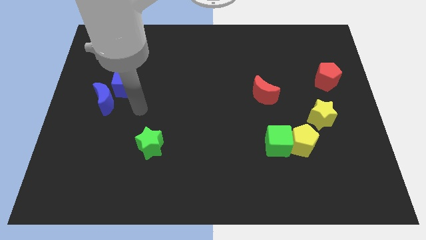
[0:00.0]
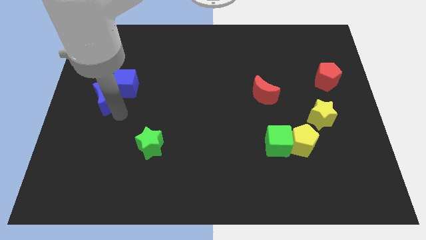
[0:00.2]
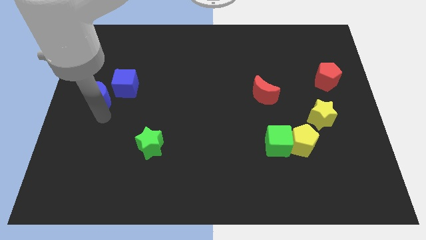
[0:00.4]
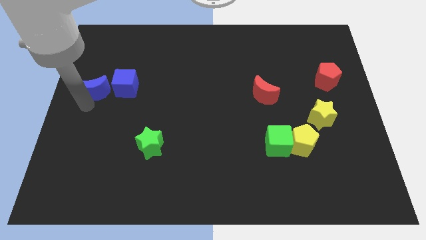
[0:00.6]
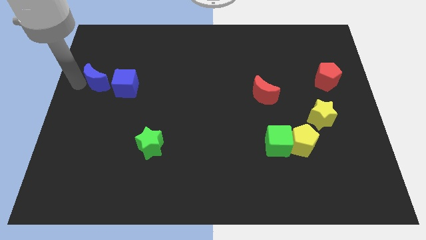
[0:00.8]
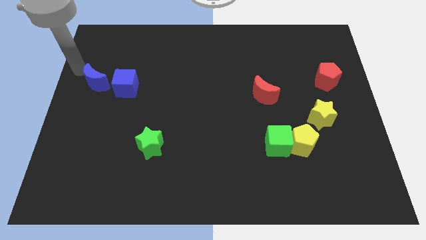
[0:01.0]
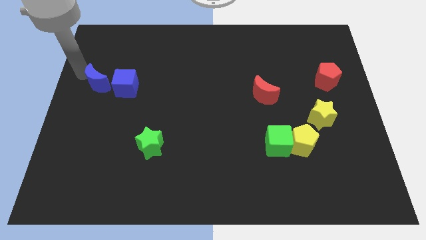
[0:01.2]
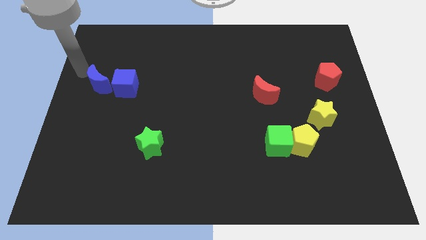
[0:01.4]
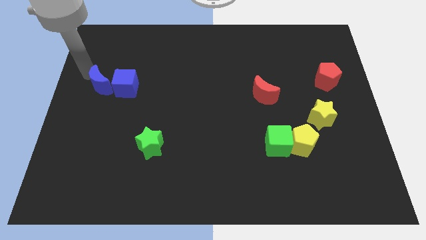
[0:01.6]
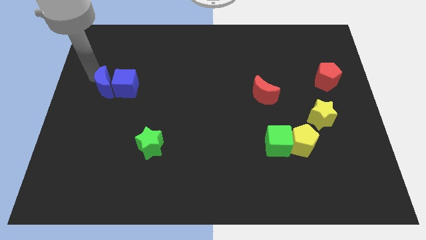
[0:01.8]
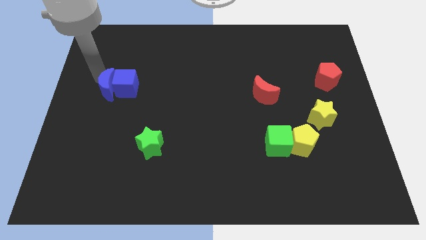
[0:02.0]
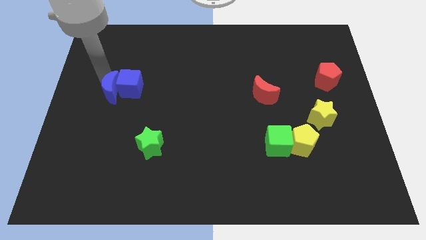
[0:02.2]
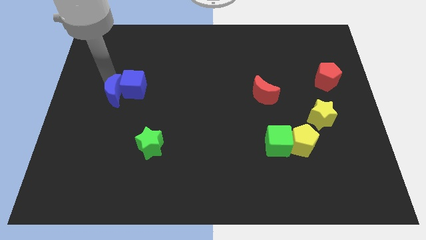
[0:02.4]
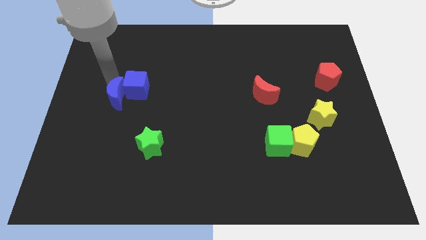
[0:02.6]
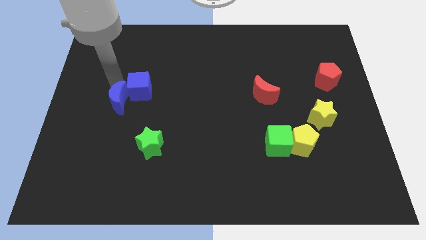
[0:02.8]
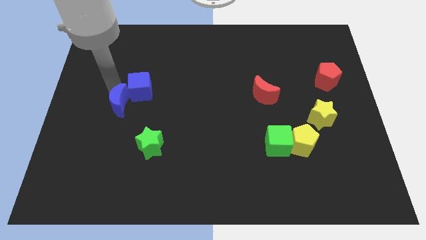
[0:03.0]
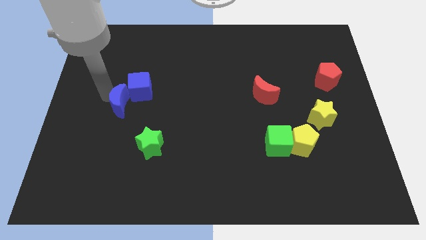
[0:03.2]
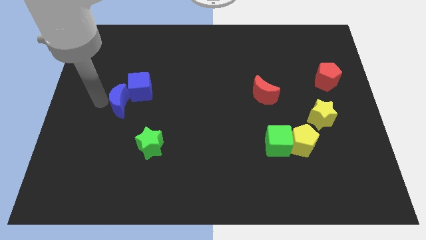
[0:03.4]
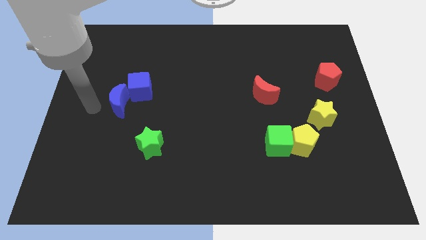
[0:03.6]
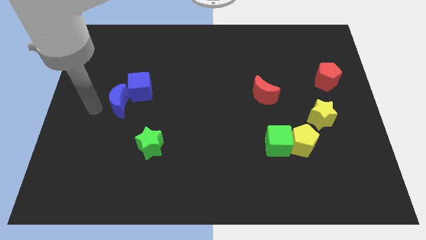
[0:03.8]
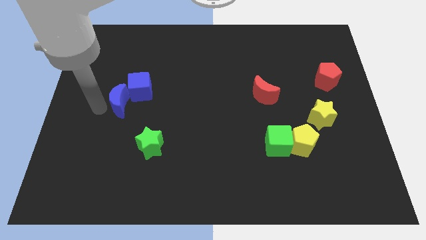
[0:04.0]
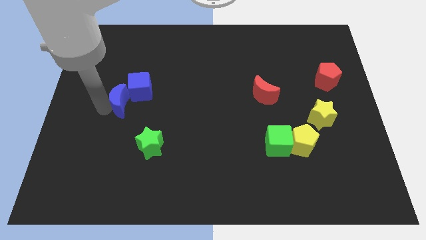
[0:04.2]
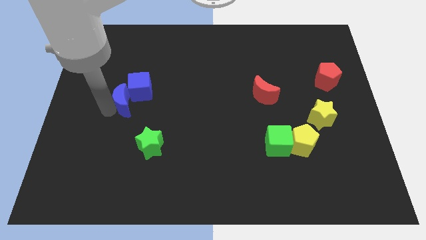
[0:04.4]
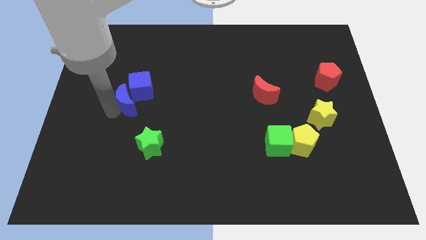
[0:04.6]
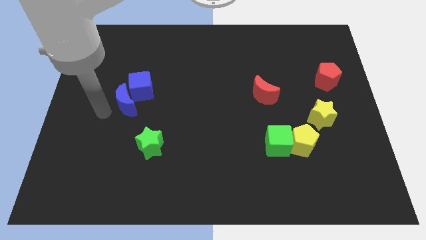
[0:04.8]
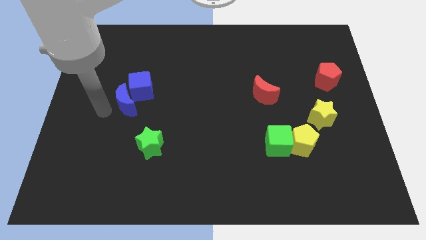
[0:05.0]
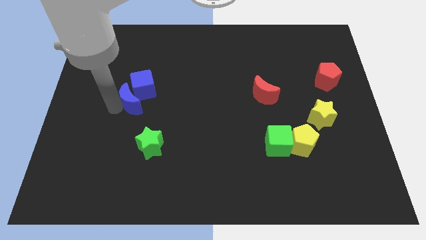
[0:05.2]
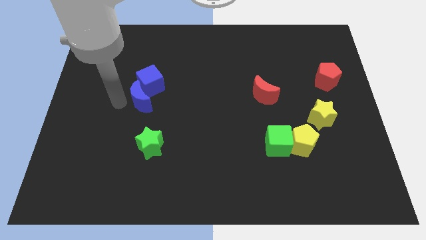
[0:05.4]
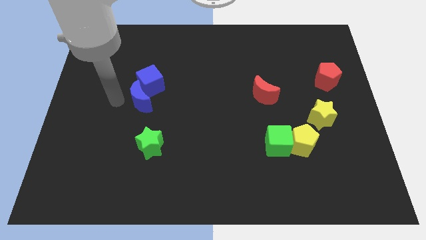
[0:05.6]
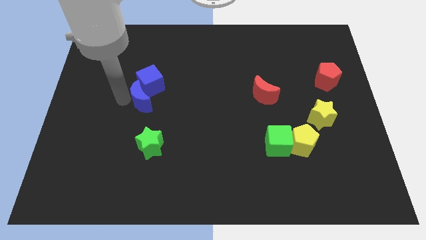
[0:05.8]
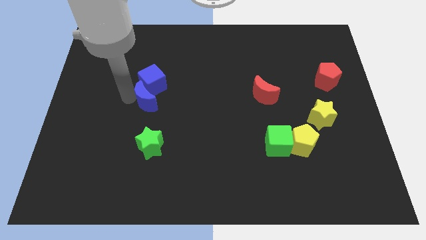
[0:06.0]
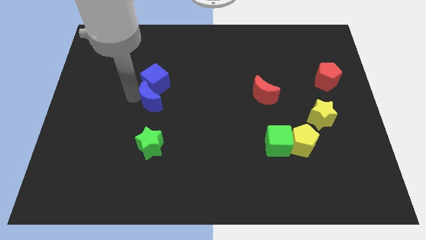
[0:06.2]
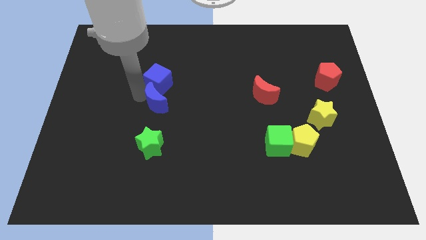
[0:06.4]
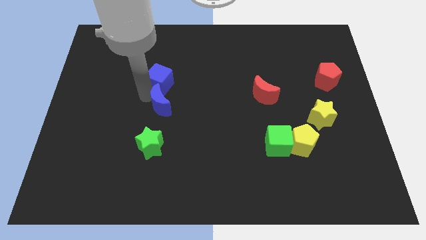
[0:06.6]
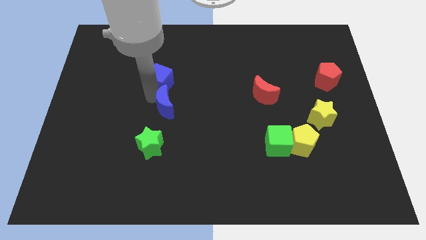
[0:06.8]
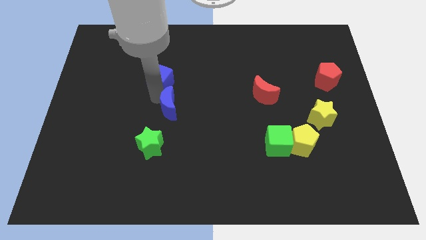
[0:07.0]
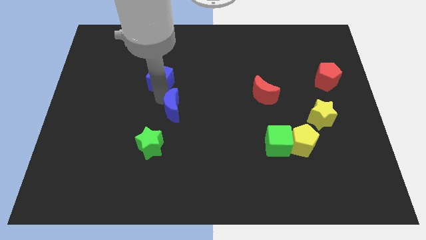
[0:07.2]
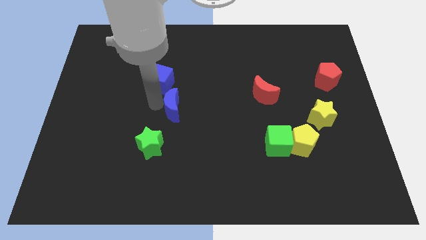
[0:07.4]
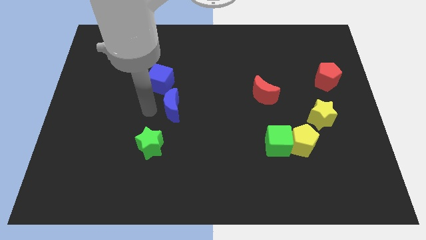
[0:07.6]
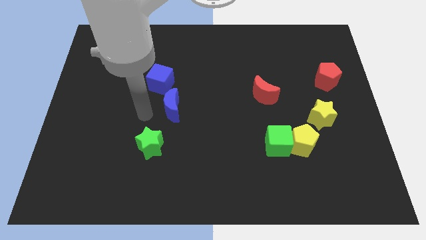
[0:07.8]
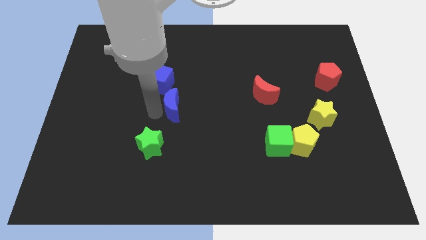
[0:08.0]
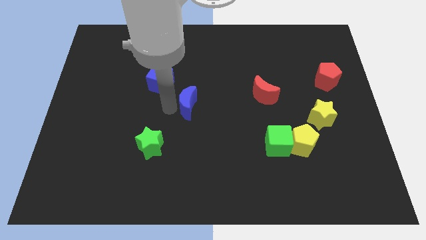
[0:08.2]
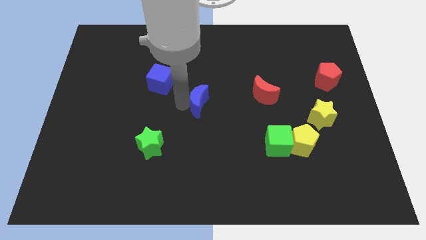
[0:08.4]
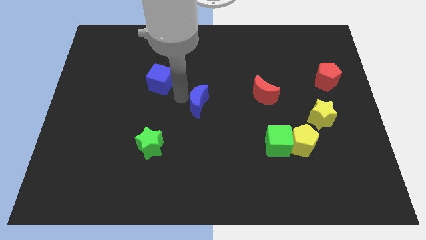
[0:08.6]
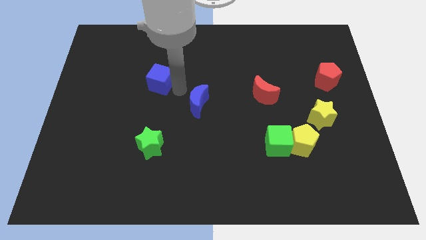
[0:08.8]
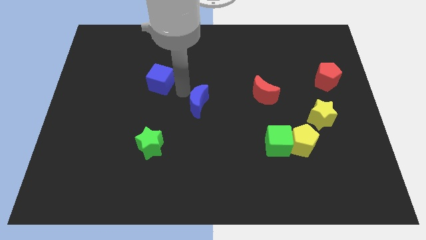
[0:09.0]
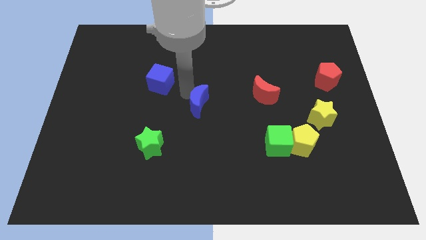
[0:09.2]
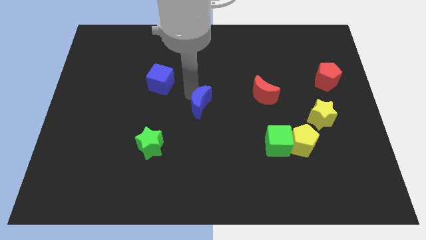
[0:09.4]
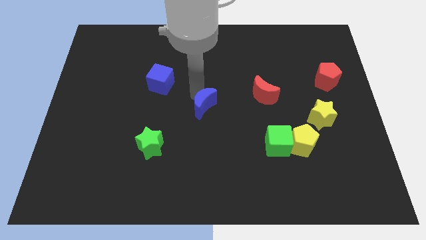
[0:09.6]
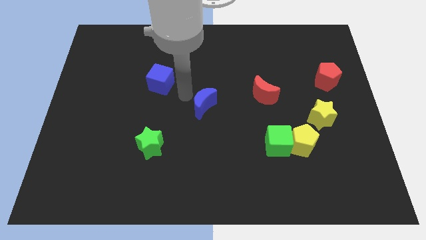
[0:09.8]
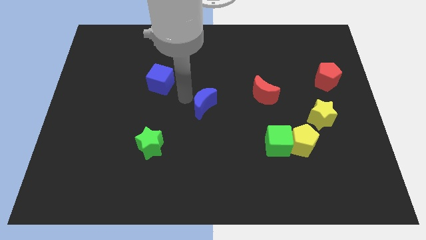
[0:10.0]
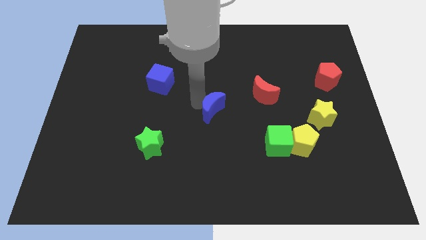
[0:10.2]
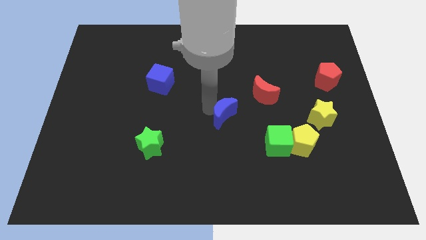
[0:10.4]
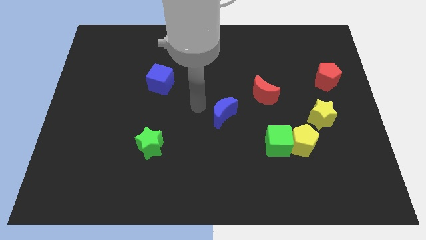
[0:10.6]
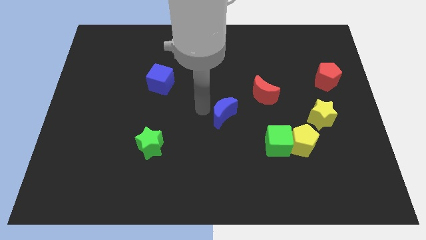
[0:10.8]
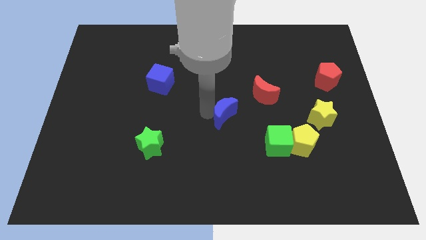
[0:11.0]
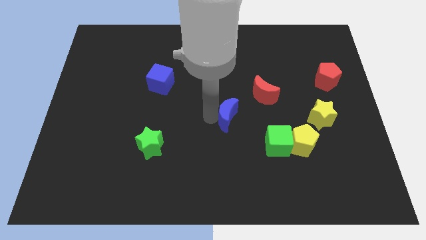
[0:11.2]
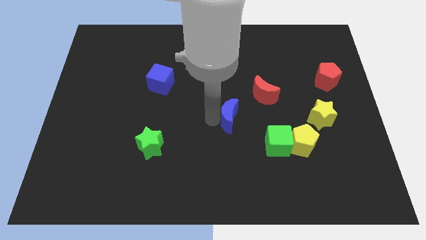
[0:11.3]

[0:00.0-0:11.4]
put the blue moon to the top left side of the green cube

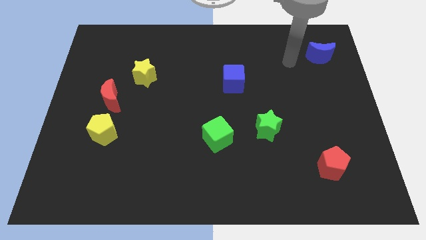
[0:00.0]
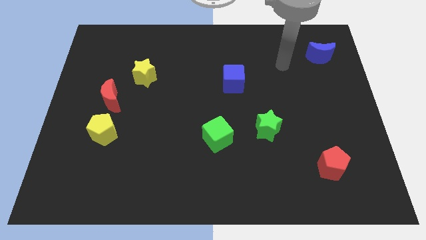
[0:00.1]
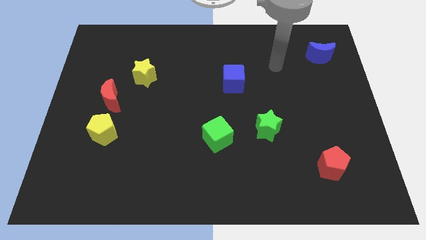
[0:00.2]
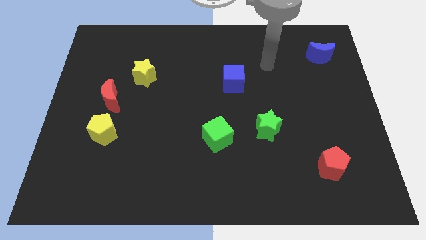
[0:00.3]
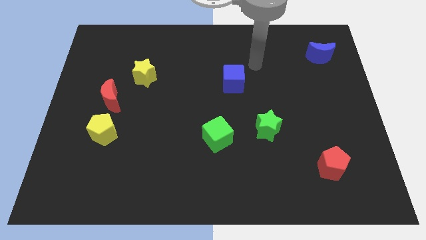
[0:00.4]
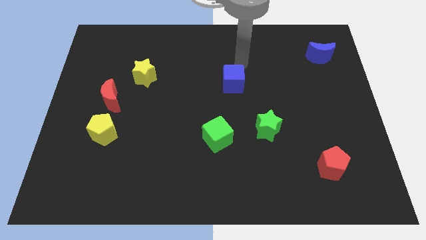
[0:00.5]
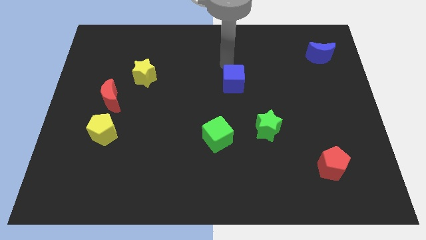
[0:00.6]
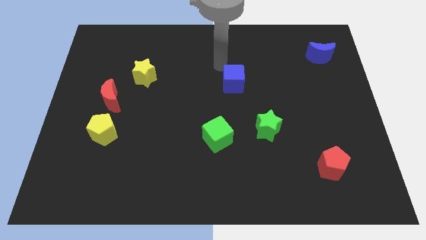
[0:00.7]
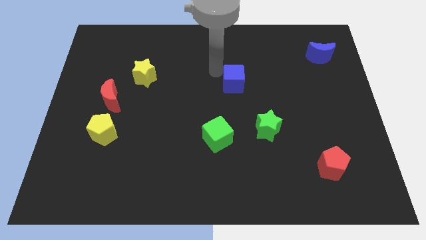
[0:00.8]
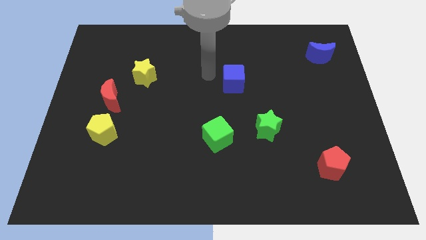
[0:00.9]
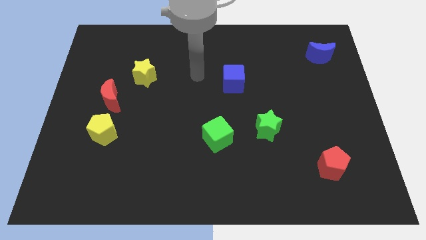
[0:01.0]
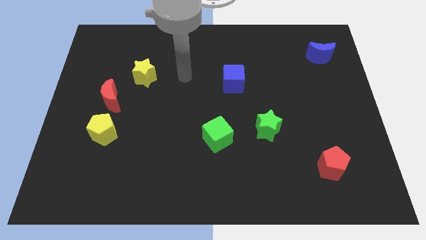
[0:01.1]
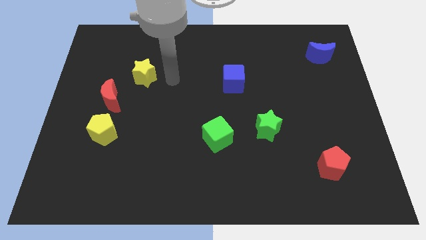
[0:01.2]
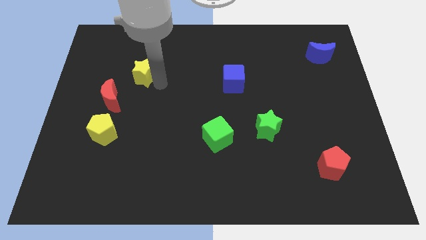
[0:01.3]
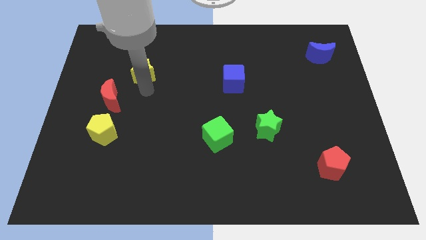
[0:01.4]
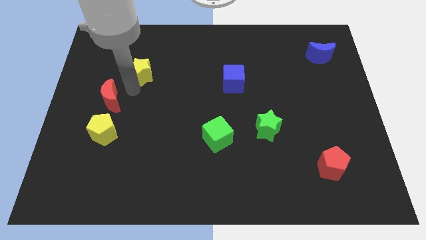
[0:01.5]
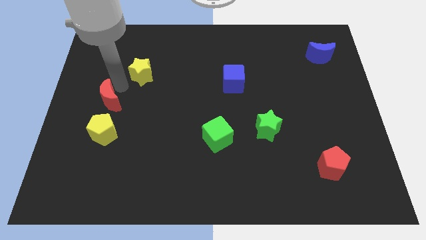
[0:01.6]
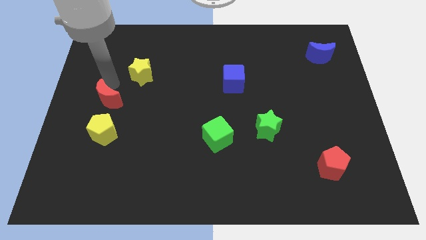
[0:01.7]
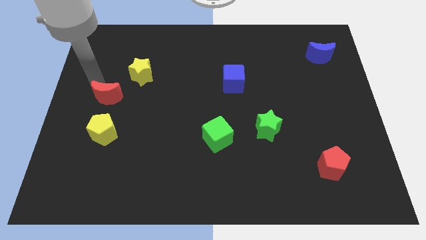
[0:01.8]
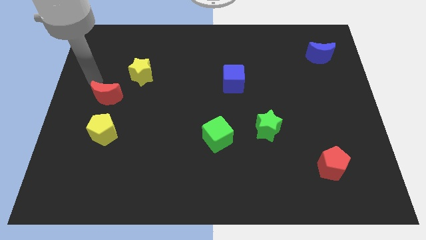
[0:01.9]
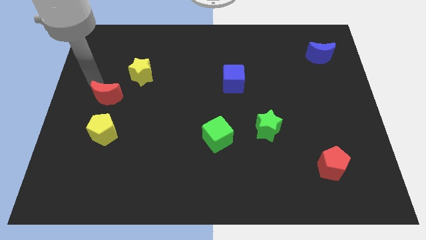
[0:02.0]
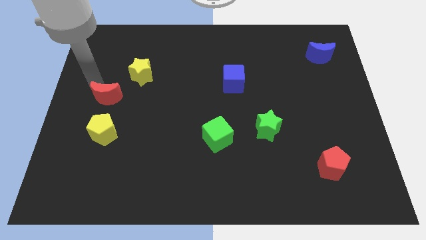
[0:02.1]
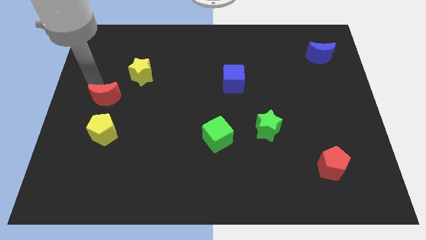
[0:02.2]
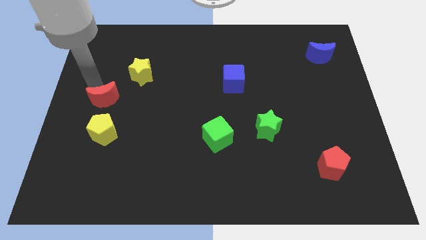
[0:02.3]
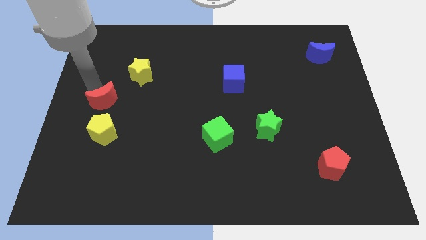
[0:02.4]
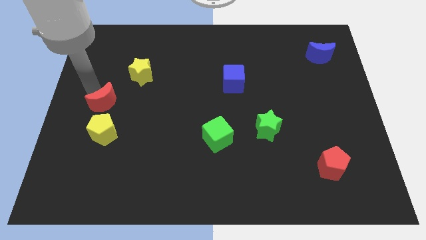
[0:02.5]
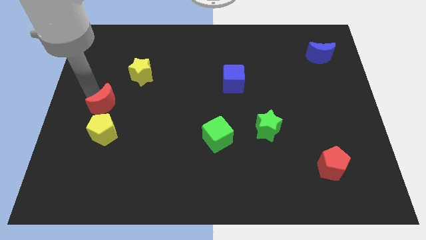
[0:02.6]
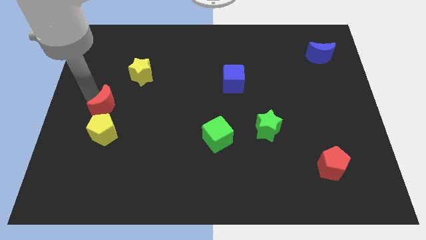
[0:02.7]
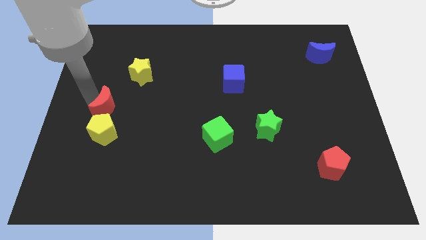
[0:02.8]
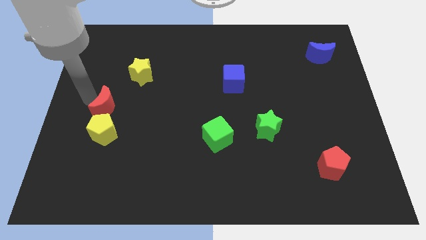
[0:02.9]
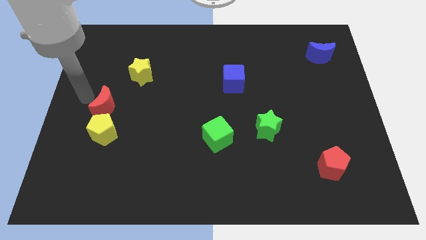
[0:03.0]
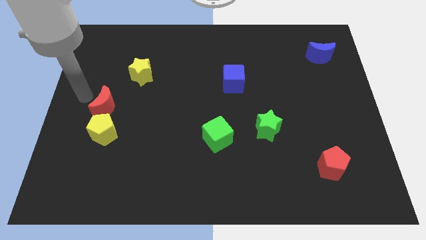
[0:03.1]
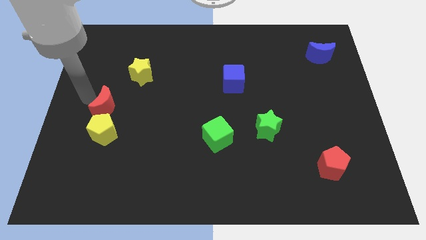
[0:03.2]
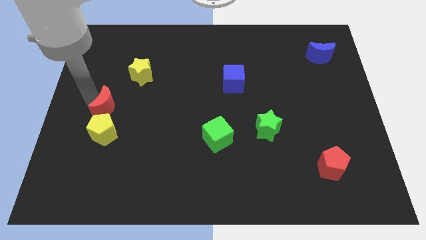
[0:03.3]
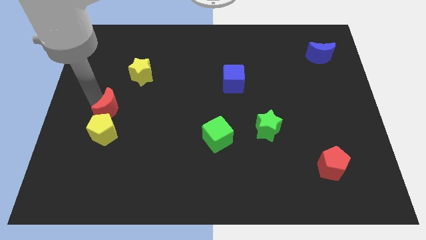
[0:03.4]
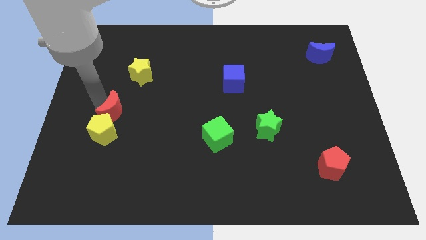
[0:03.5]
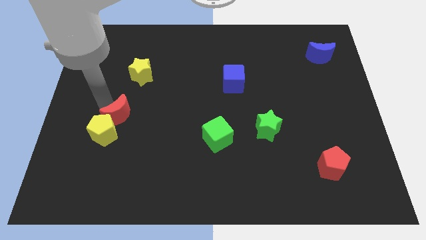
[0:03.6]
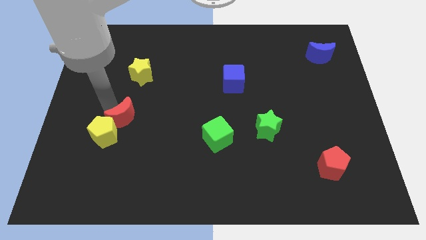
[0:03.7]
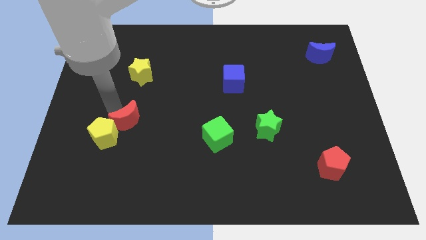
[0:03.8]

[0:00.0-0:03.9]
put the red moon to the right side of the yellow pentagon
